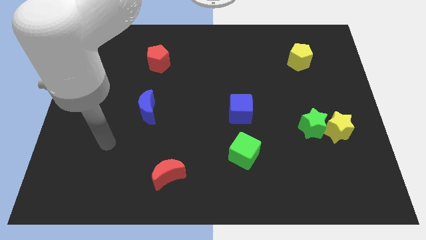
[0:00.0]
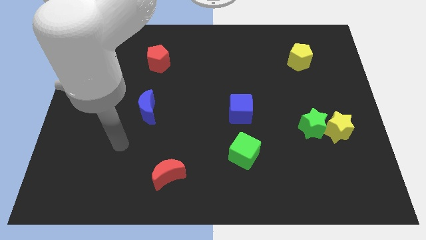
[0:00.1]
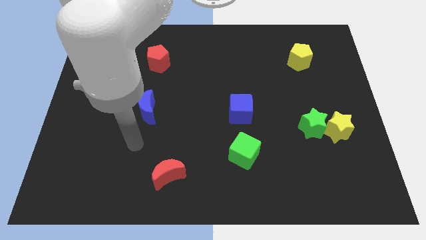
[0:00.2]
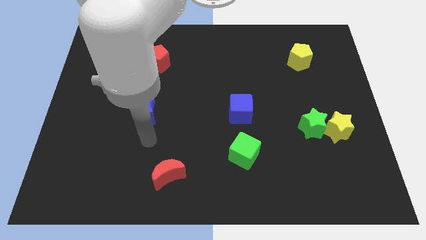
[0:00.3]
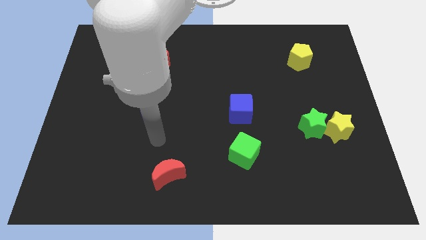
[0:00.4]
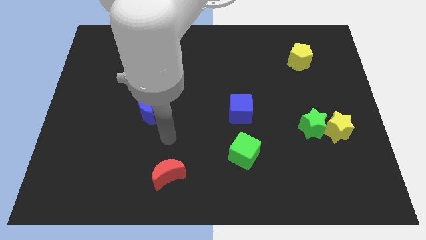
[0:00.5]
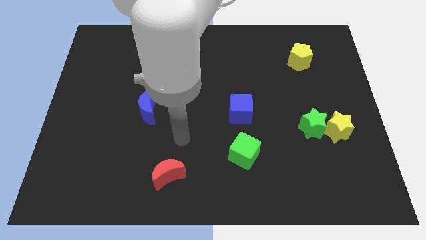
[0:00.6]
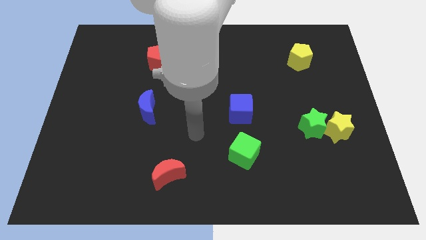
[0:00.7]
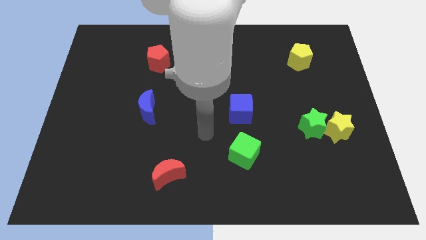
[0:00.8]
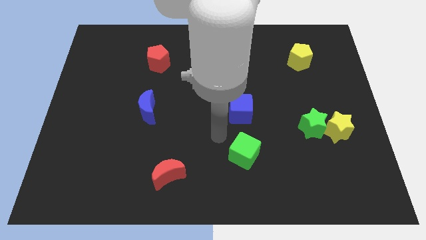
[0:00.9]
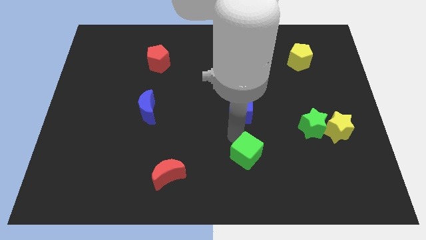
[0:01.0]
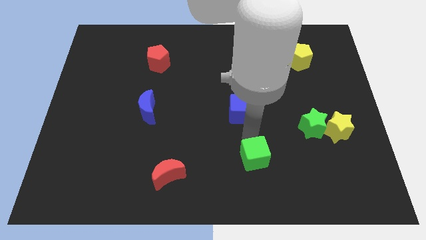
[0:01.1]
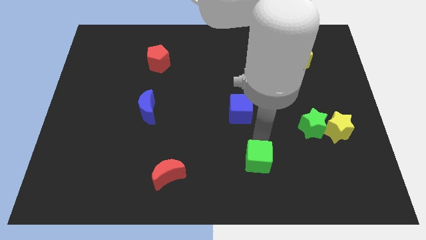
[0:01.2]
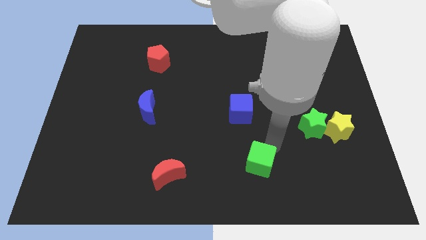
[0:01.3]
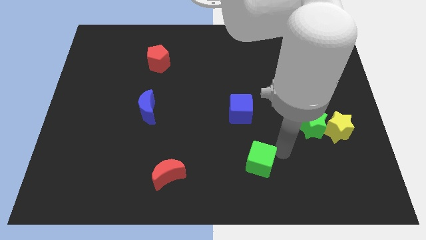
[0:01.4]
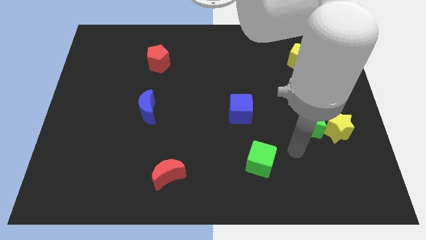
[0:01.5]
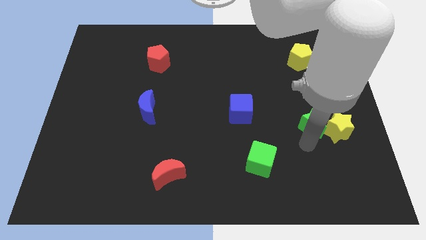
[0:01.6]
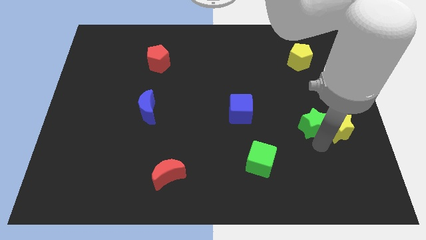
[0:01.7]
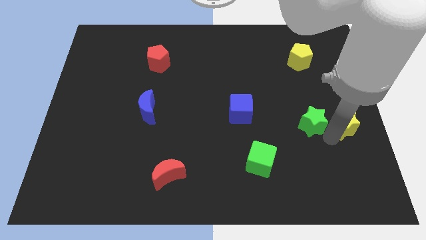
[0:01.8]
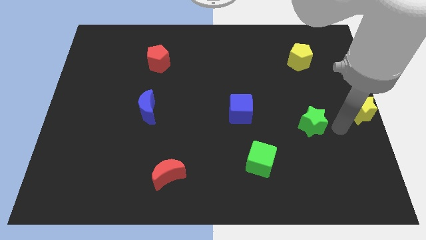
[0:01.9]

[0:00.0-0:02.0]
separate the green star from the yellow star

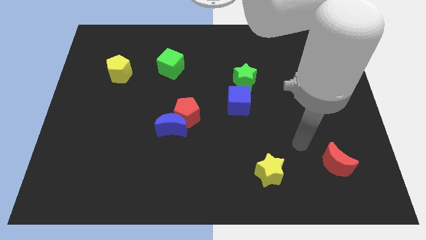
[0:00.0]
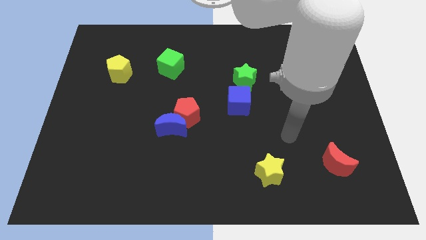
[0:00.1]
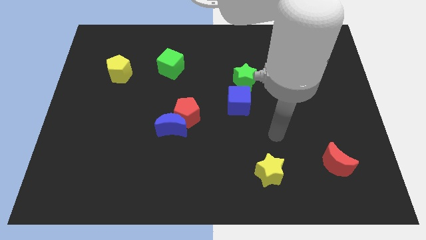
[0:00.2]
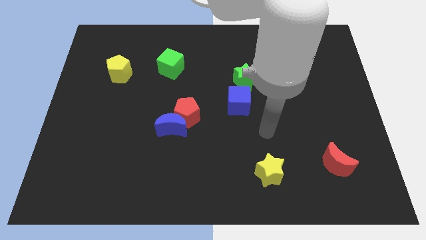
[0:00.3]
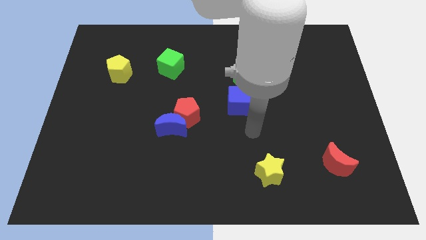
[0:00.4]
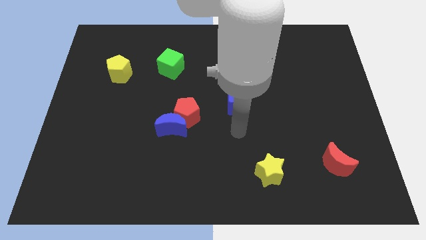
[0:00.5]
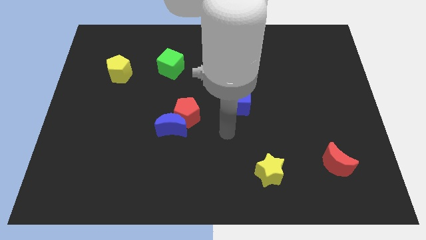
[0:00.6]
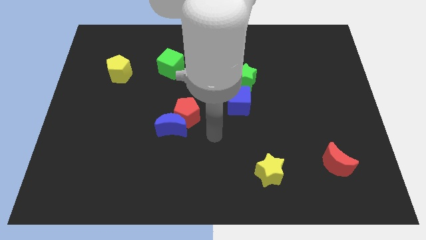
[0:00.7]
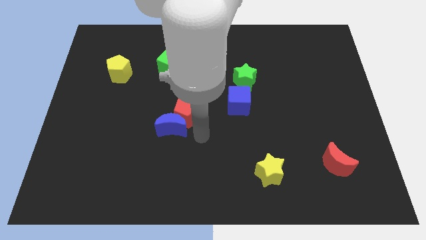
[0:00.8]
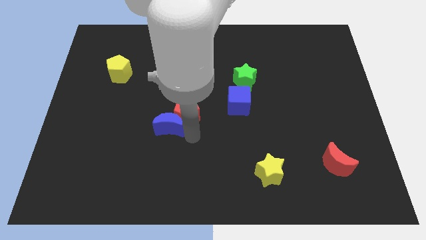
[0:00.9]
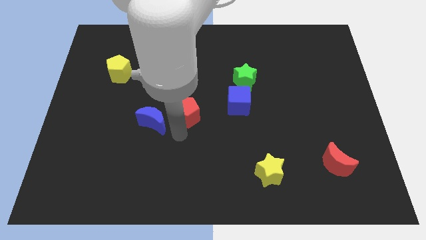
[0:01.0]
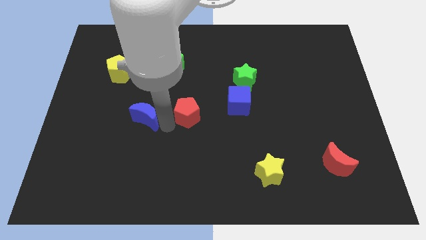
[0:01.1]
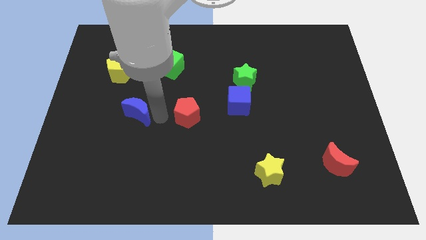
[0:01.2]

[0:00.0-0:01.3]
pull the red pentagon apart from the blue moon

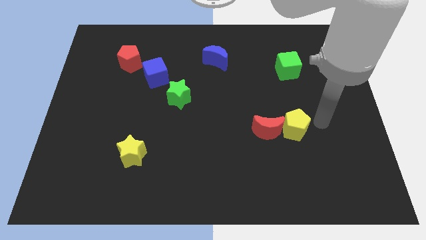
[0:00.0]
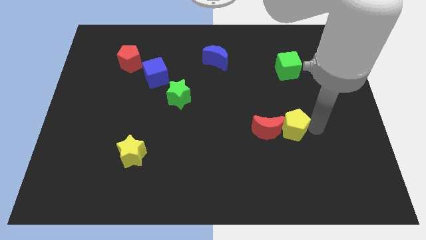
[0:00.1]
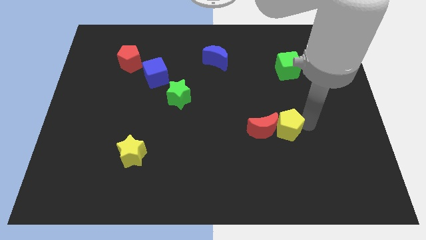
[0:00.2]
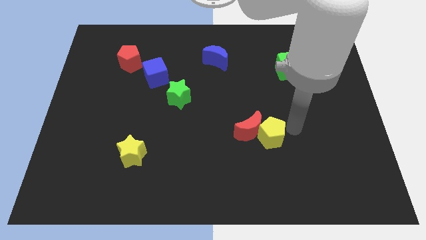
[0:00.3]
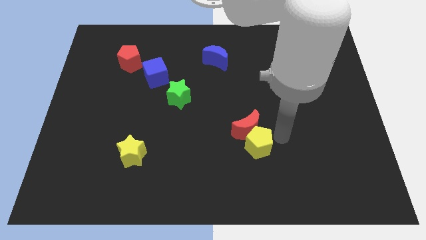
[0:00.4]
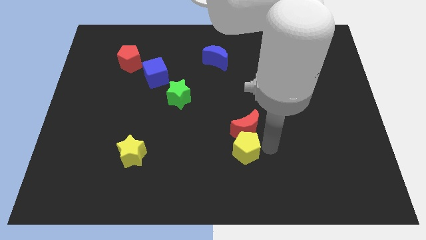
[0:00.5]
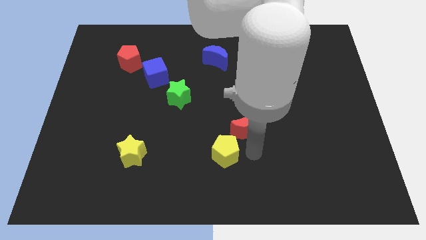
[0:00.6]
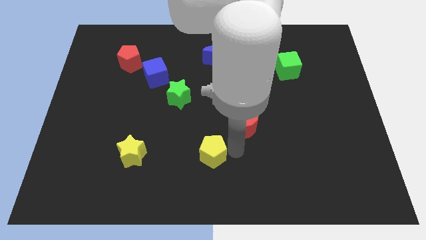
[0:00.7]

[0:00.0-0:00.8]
separate the red moon from the yellow pentagon

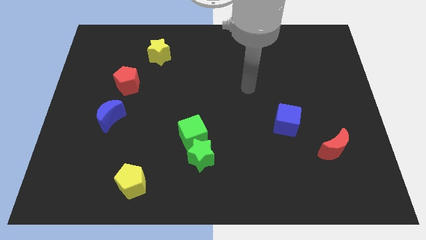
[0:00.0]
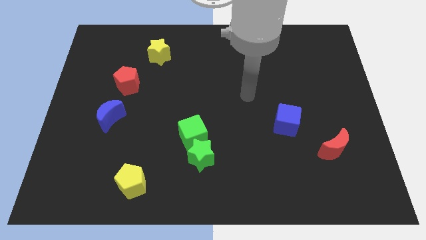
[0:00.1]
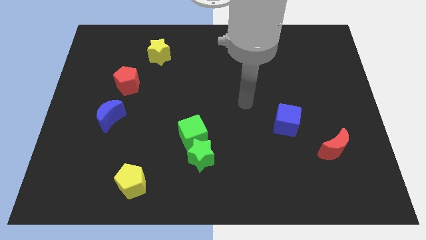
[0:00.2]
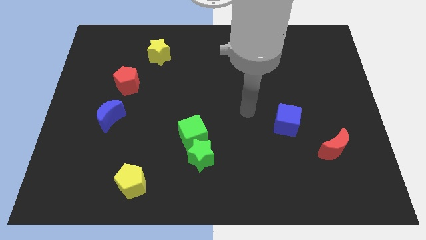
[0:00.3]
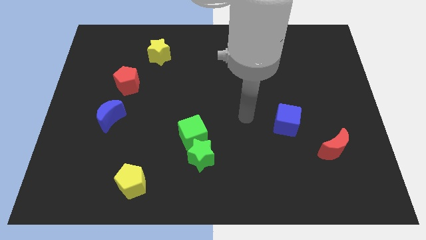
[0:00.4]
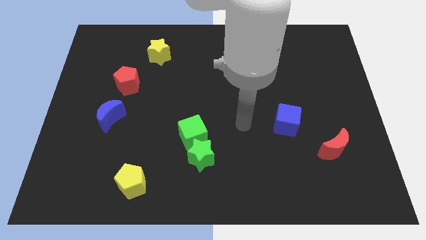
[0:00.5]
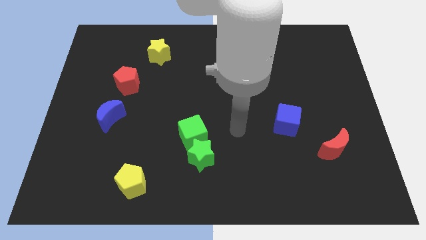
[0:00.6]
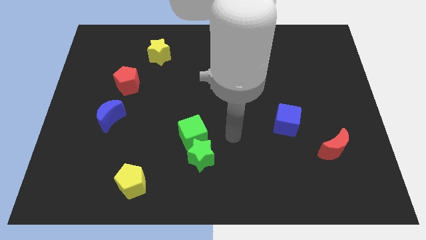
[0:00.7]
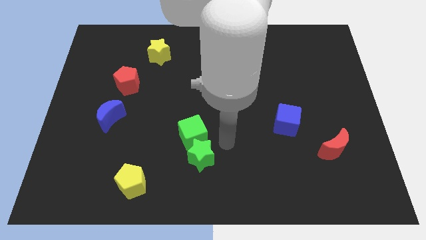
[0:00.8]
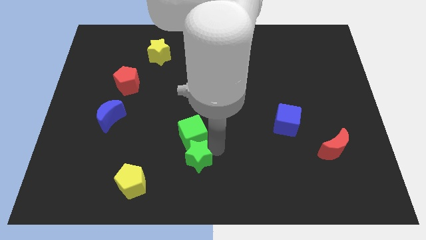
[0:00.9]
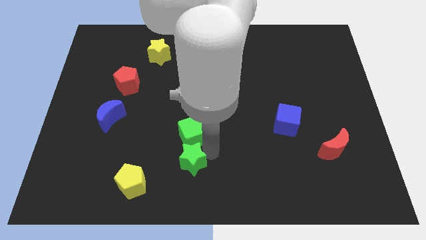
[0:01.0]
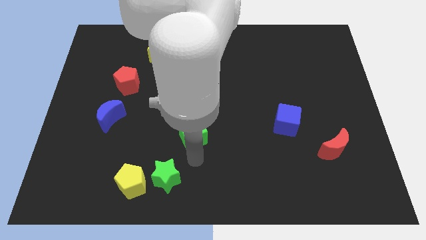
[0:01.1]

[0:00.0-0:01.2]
move the green cube away from the green star

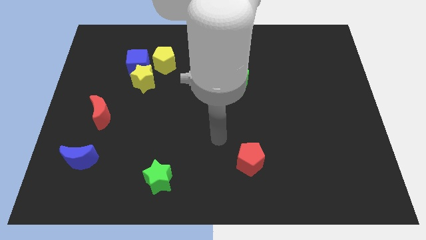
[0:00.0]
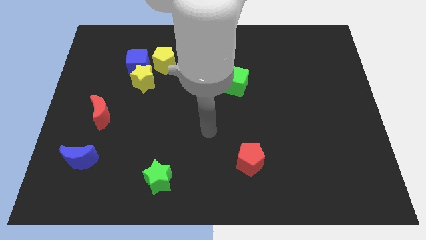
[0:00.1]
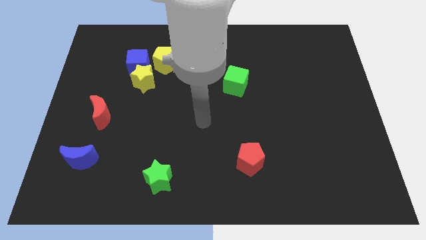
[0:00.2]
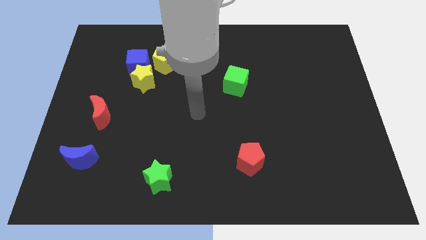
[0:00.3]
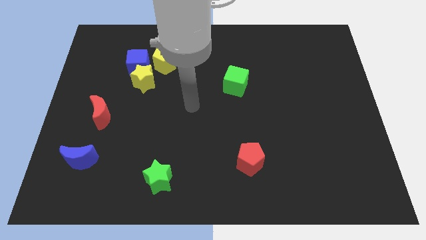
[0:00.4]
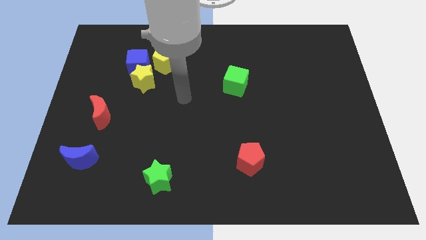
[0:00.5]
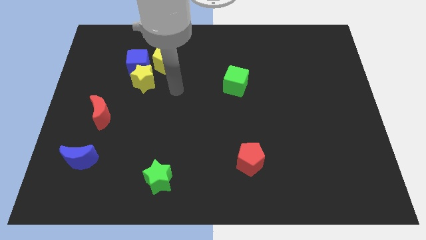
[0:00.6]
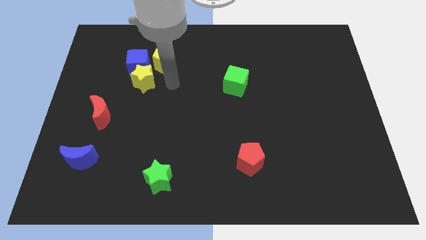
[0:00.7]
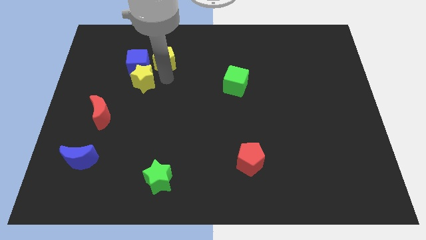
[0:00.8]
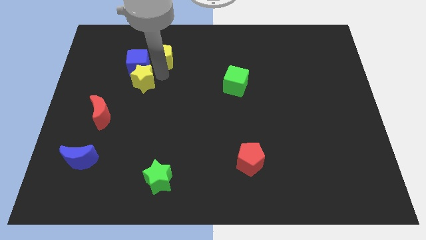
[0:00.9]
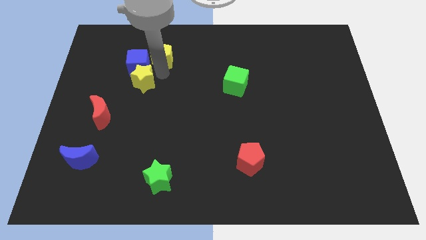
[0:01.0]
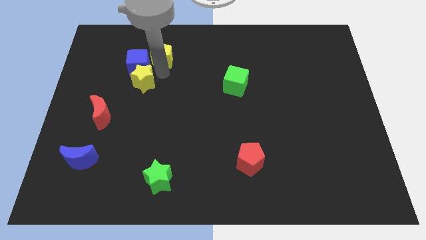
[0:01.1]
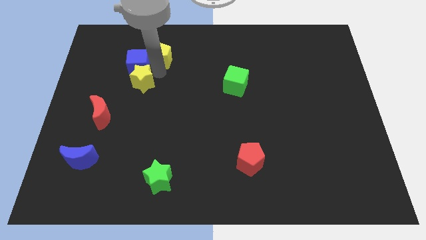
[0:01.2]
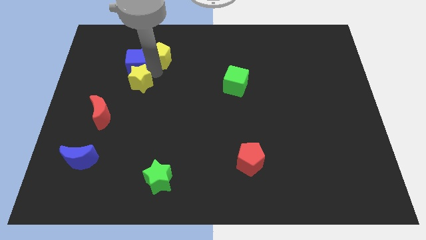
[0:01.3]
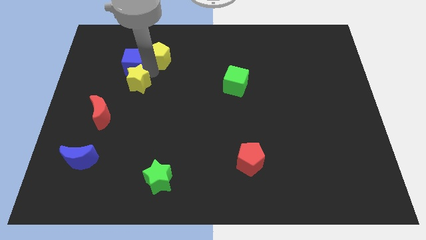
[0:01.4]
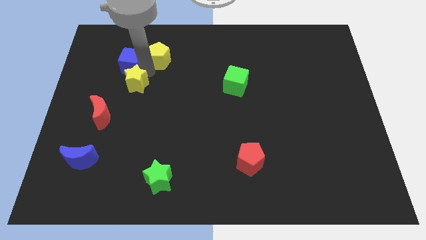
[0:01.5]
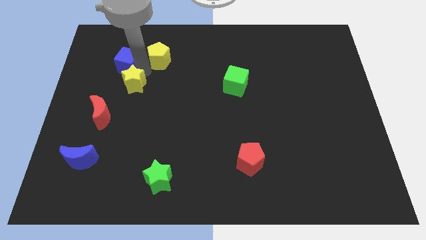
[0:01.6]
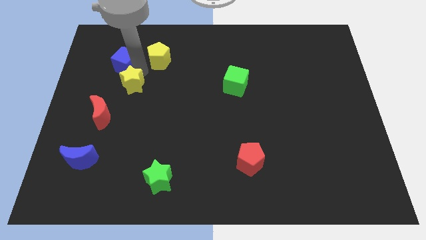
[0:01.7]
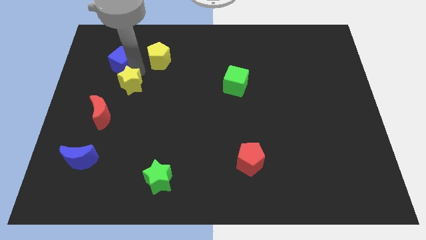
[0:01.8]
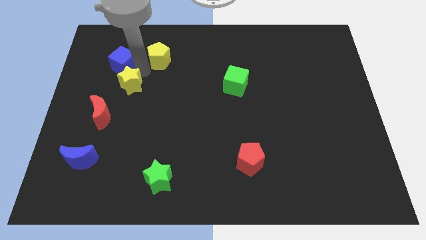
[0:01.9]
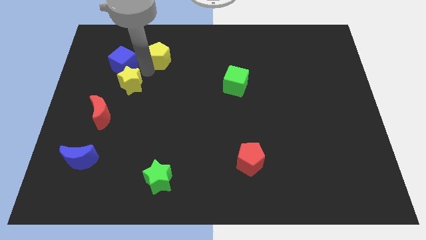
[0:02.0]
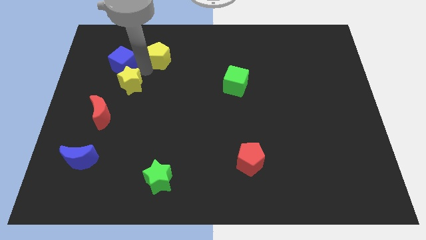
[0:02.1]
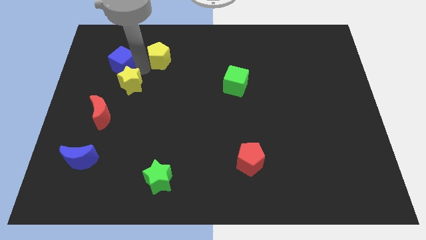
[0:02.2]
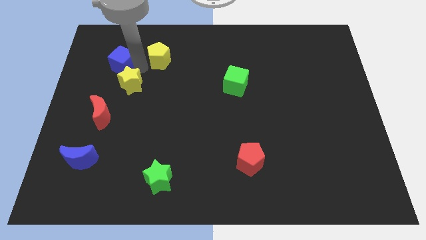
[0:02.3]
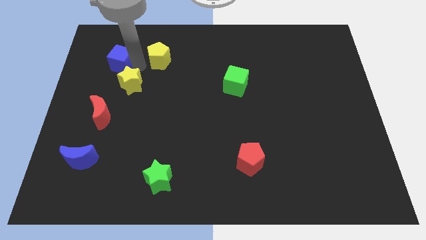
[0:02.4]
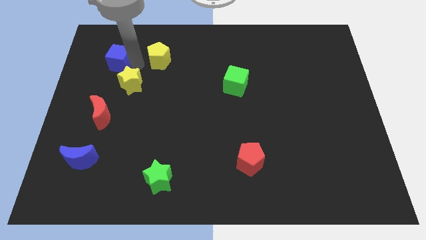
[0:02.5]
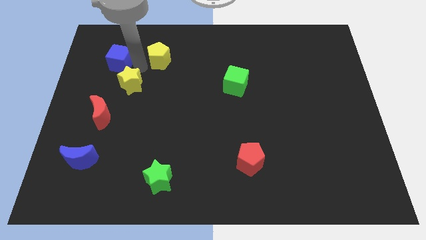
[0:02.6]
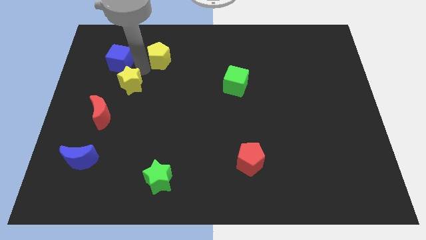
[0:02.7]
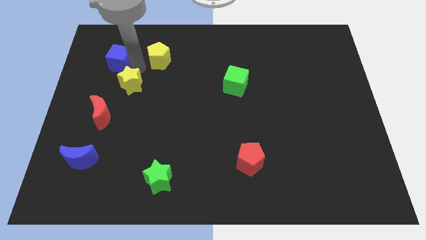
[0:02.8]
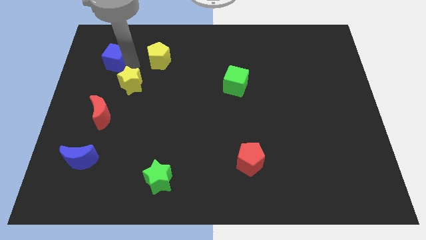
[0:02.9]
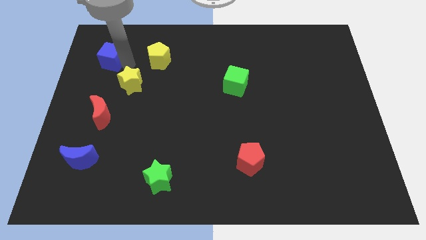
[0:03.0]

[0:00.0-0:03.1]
separate the blue cube from the yellow star and yellow pentagon

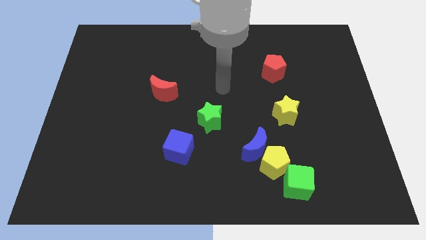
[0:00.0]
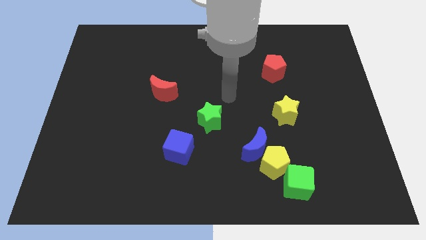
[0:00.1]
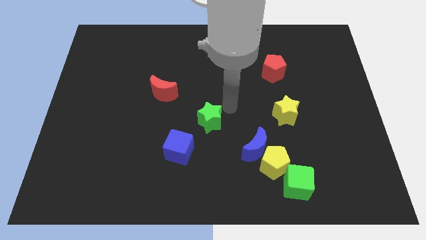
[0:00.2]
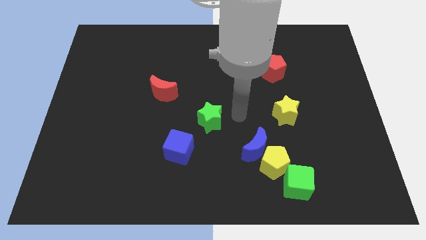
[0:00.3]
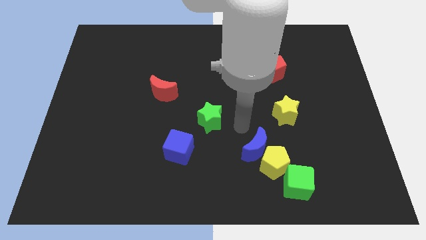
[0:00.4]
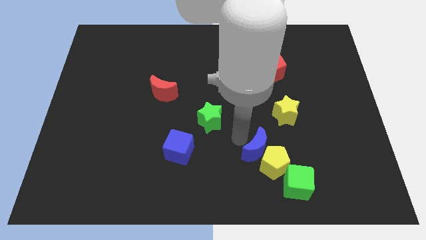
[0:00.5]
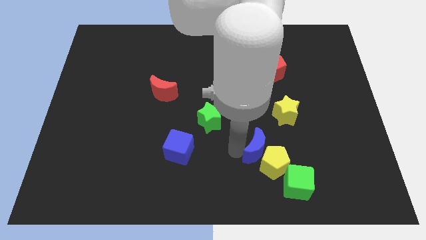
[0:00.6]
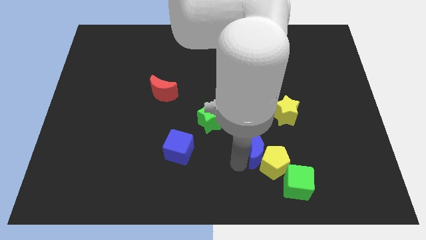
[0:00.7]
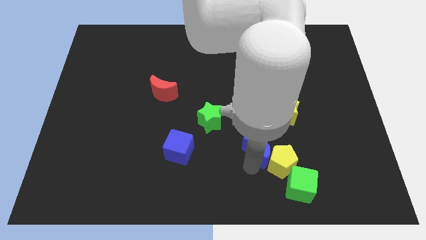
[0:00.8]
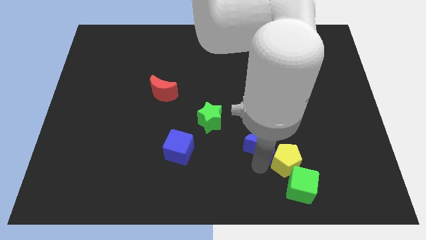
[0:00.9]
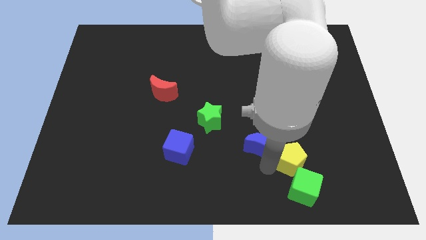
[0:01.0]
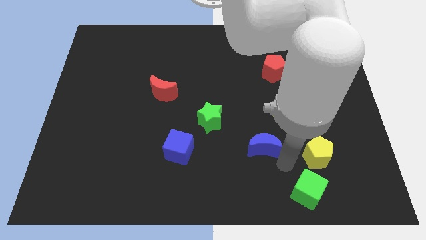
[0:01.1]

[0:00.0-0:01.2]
separate the blue moon from the yellow pentagon
